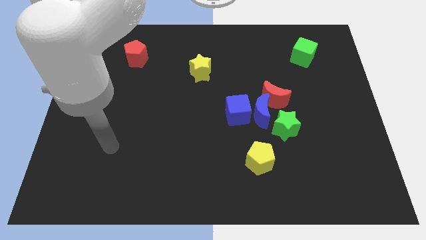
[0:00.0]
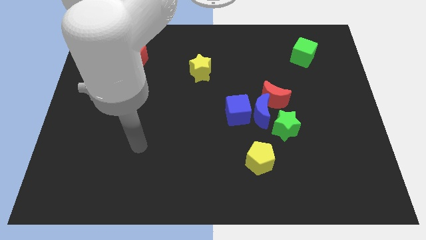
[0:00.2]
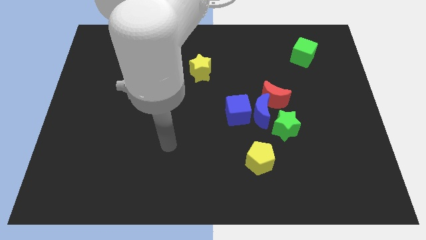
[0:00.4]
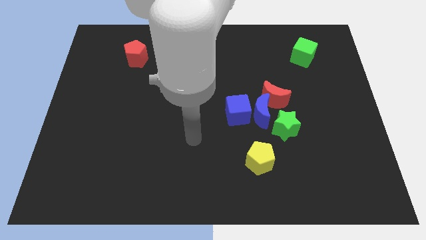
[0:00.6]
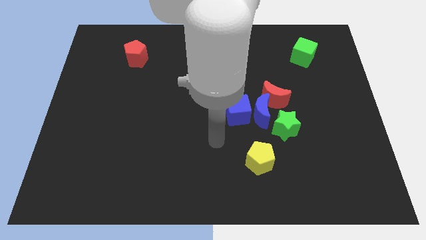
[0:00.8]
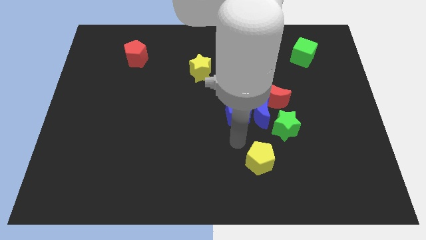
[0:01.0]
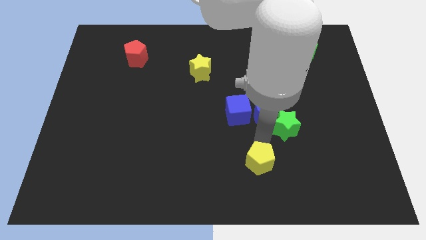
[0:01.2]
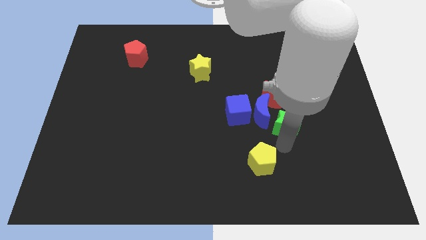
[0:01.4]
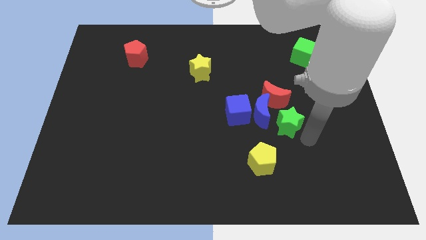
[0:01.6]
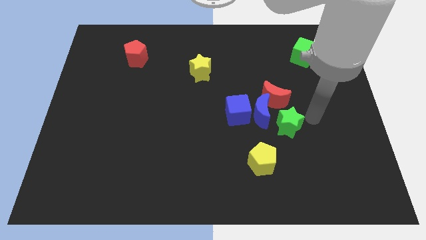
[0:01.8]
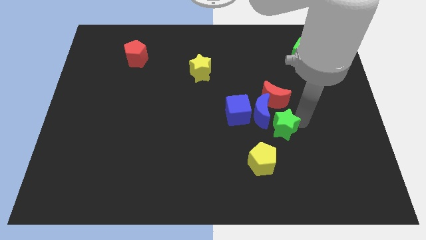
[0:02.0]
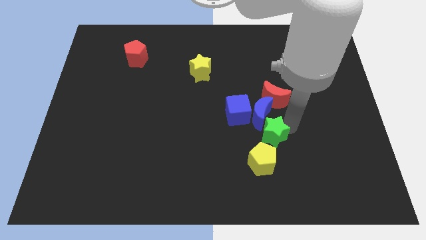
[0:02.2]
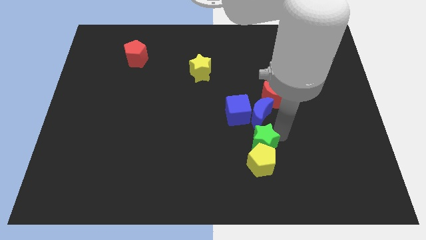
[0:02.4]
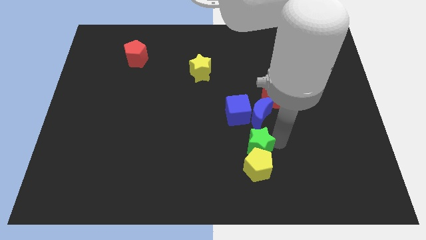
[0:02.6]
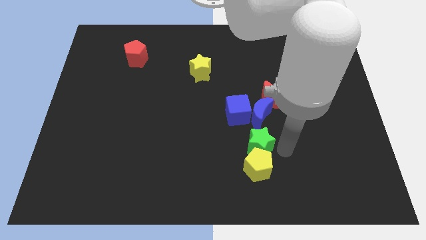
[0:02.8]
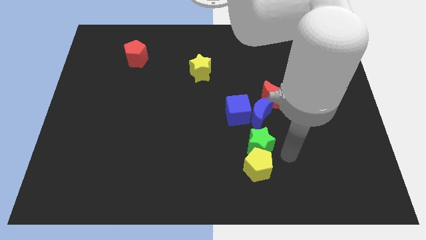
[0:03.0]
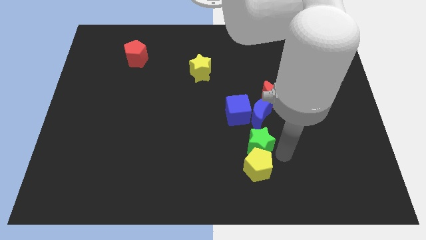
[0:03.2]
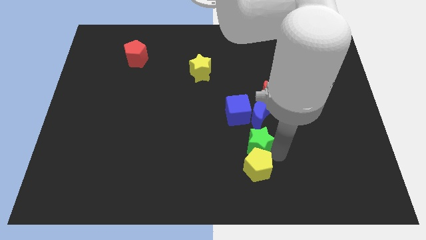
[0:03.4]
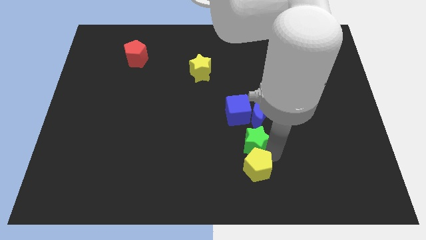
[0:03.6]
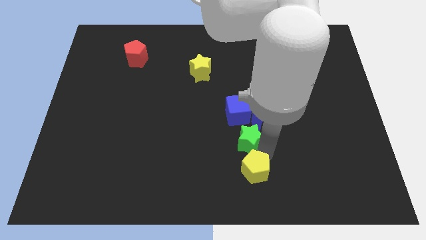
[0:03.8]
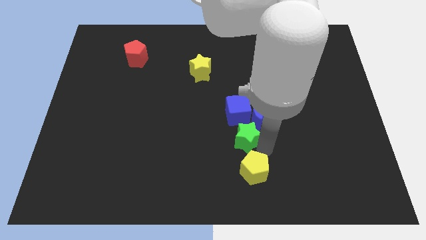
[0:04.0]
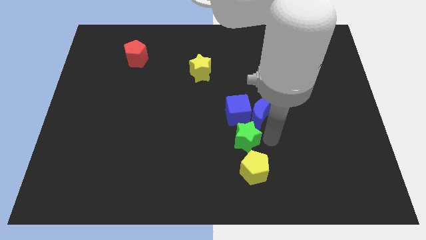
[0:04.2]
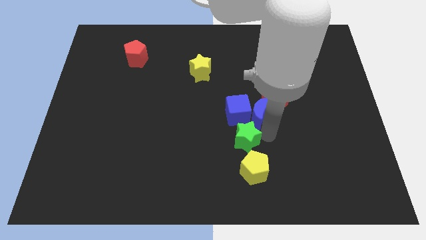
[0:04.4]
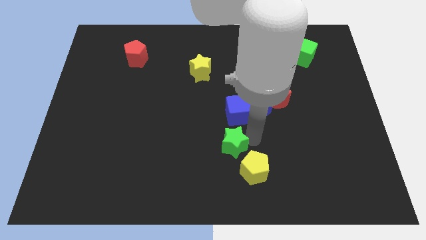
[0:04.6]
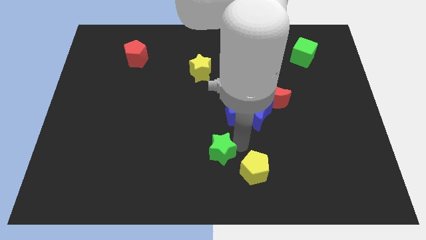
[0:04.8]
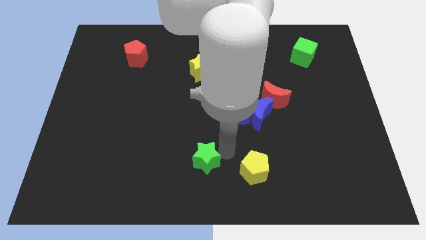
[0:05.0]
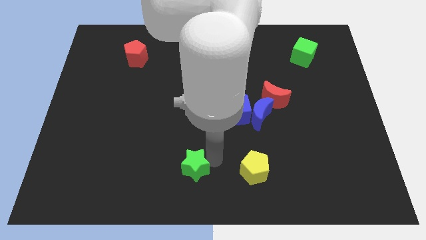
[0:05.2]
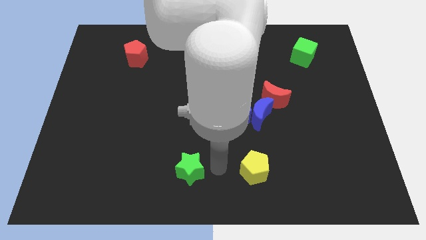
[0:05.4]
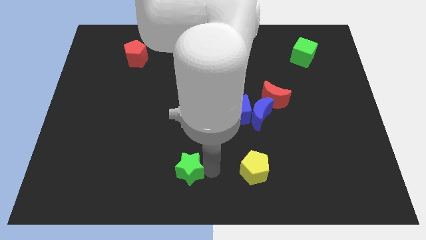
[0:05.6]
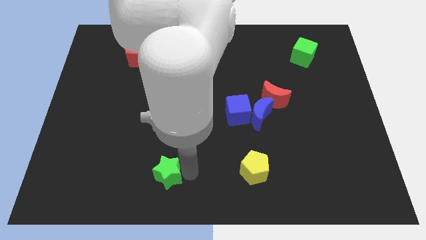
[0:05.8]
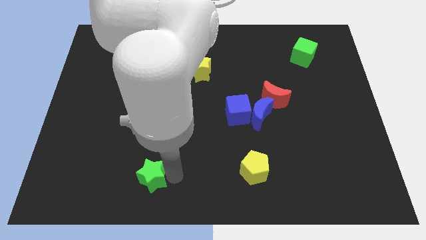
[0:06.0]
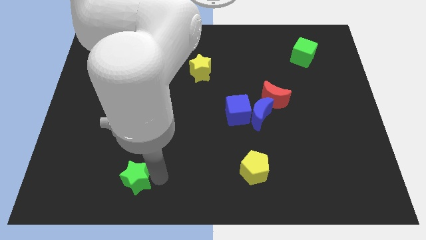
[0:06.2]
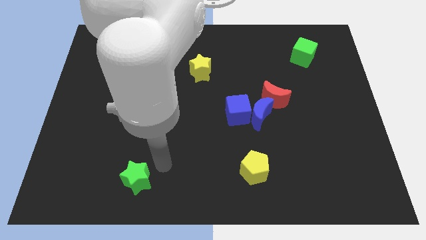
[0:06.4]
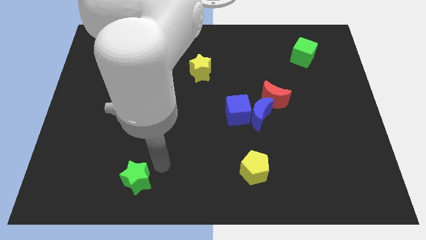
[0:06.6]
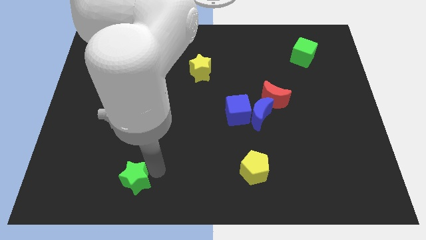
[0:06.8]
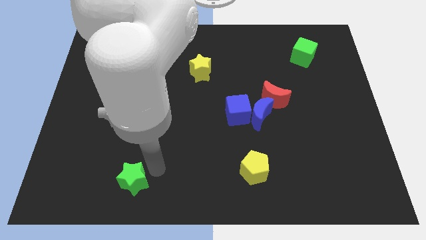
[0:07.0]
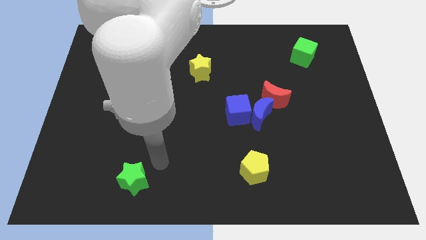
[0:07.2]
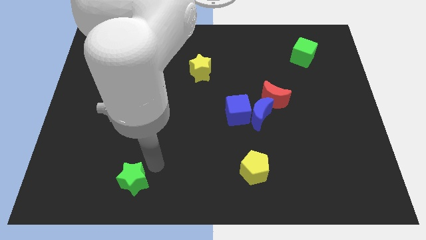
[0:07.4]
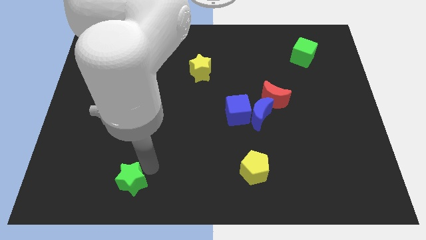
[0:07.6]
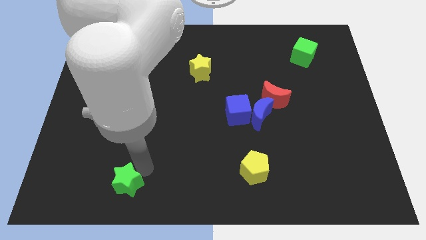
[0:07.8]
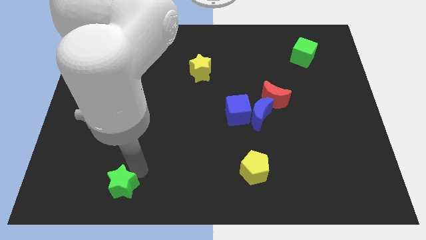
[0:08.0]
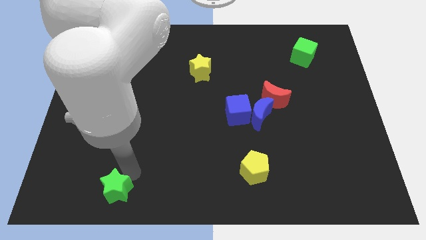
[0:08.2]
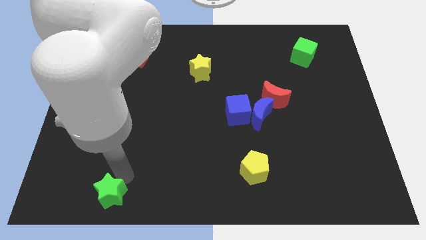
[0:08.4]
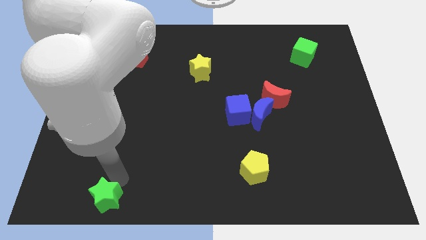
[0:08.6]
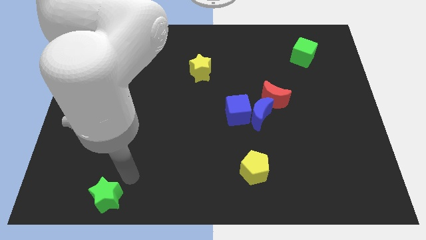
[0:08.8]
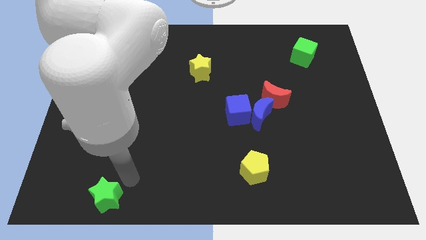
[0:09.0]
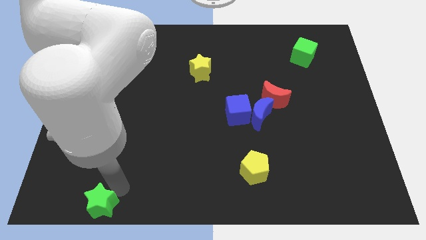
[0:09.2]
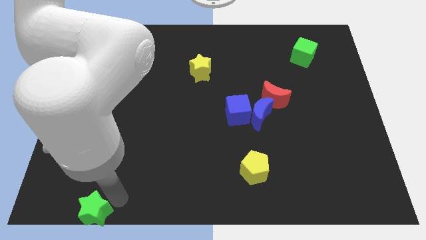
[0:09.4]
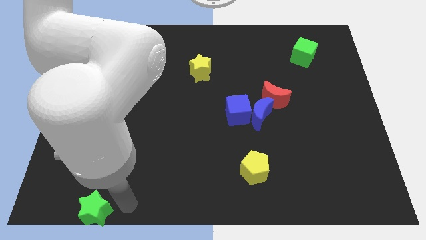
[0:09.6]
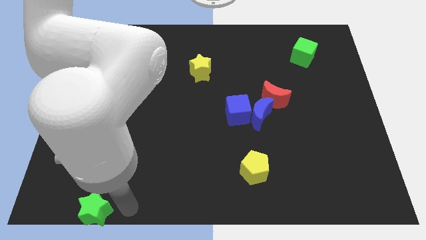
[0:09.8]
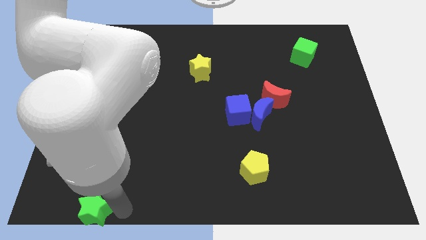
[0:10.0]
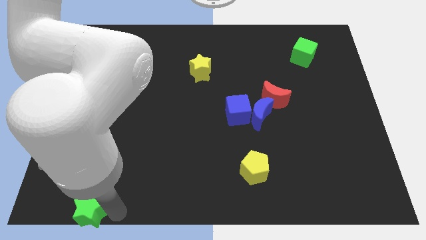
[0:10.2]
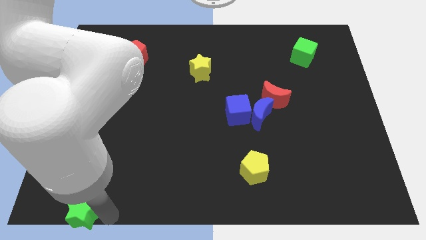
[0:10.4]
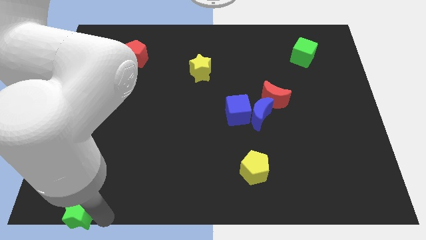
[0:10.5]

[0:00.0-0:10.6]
move the green star to the bottom left

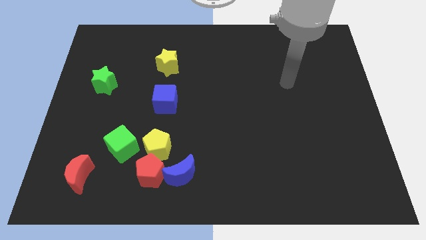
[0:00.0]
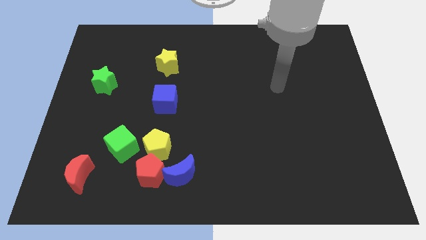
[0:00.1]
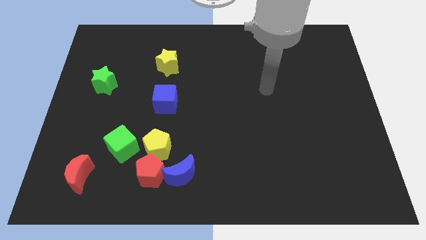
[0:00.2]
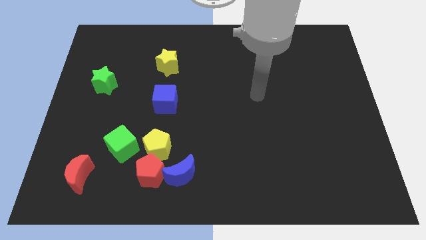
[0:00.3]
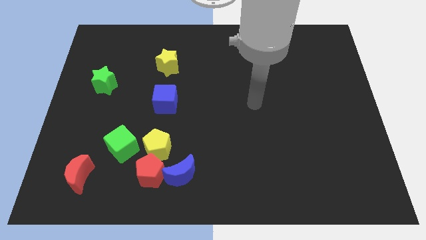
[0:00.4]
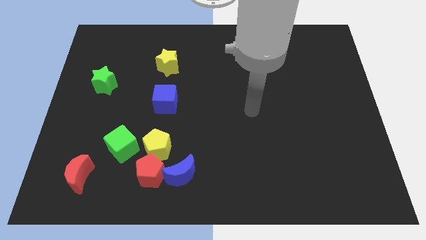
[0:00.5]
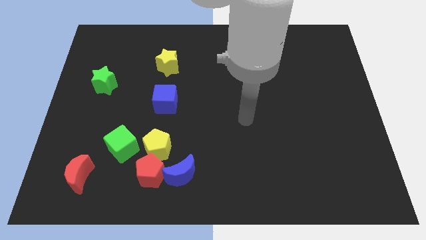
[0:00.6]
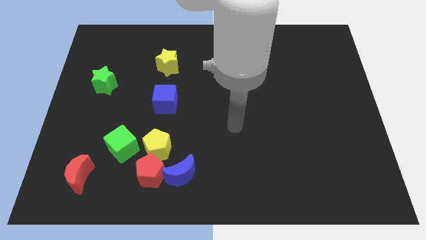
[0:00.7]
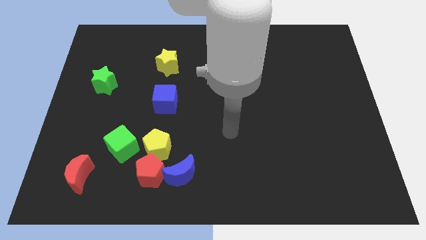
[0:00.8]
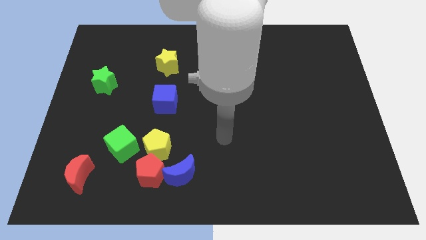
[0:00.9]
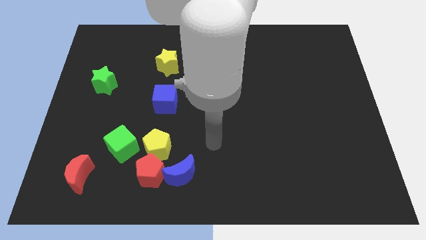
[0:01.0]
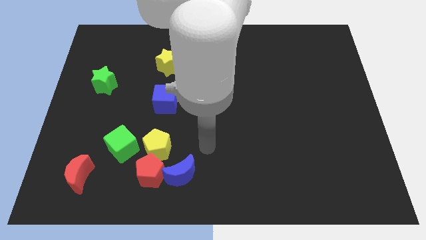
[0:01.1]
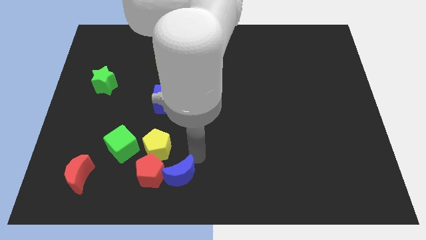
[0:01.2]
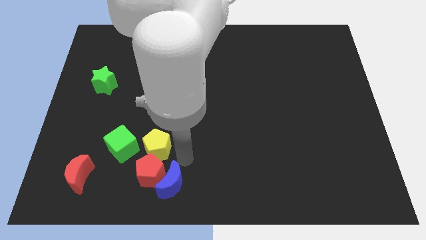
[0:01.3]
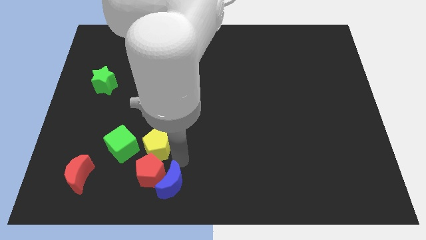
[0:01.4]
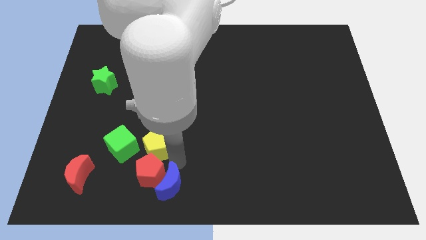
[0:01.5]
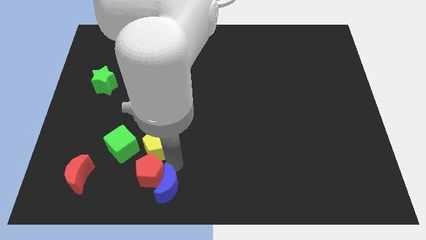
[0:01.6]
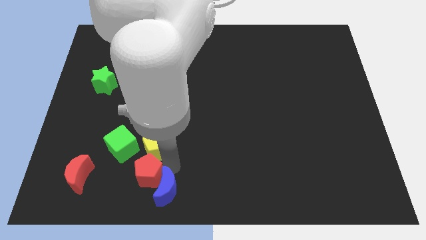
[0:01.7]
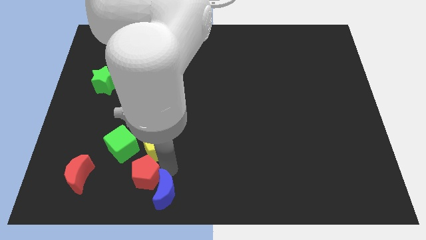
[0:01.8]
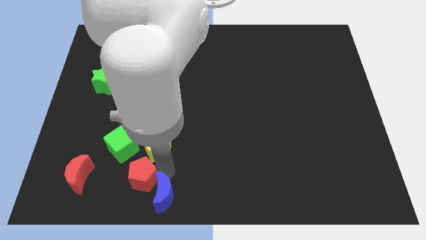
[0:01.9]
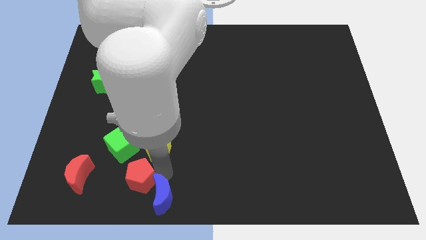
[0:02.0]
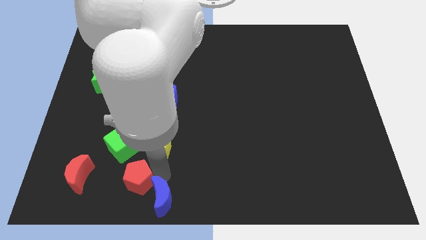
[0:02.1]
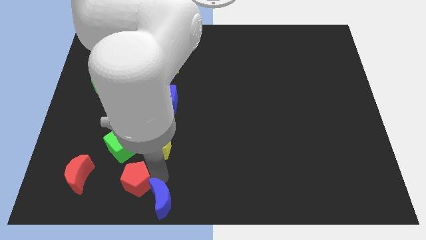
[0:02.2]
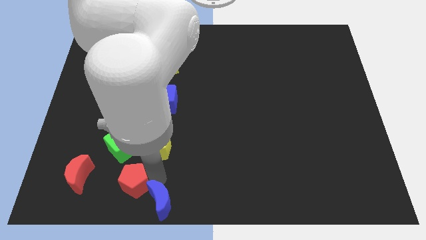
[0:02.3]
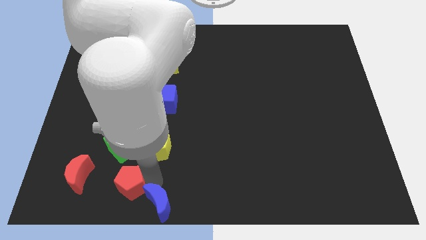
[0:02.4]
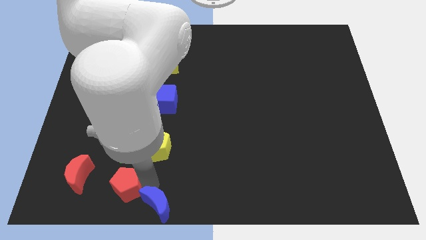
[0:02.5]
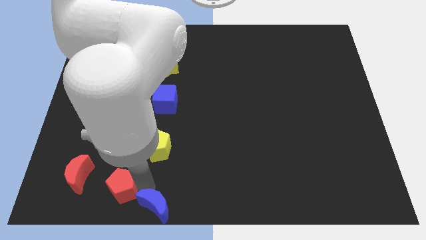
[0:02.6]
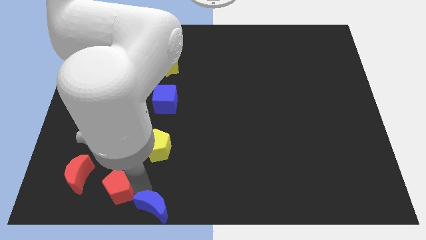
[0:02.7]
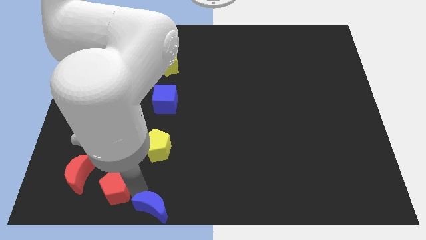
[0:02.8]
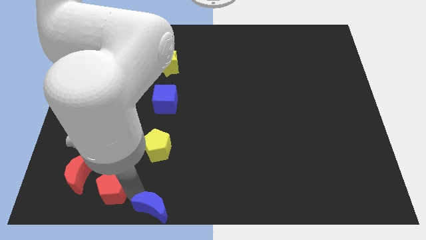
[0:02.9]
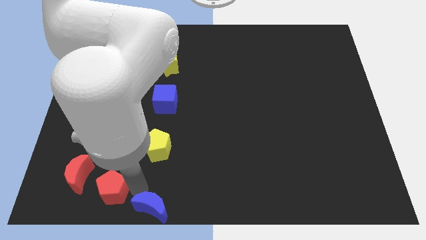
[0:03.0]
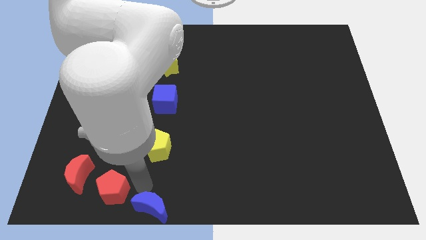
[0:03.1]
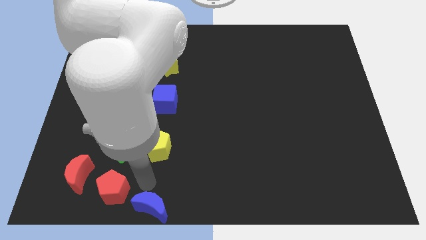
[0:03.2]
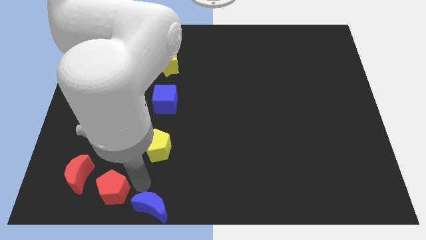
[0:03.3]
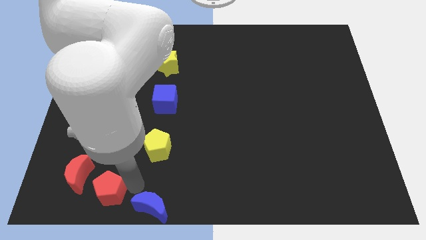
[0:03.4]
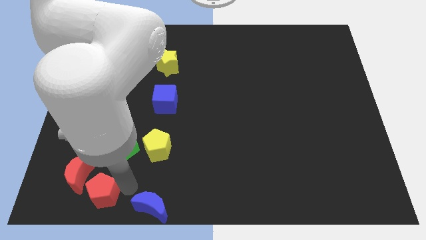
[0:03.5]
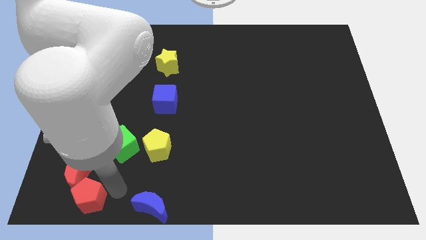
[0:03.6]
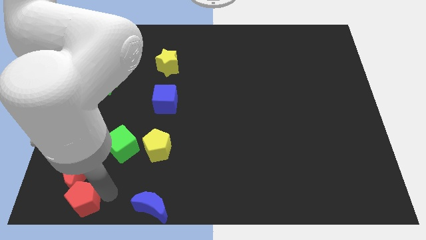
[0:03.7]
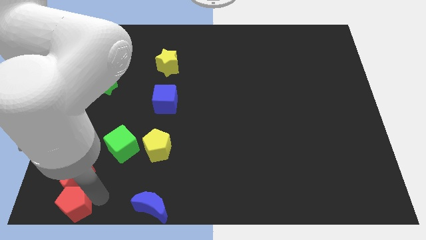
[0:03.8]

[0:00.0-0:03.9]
move the red pentagon to the lower left corner
